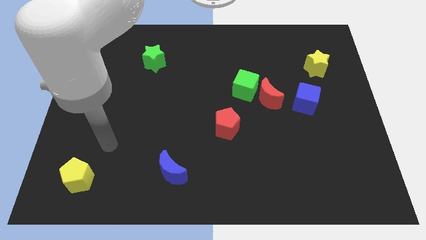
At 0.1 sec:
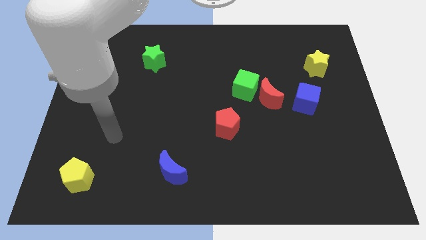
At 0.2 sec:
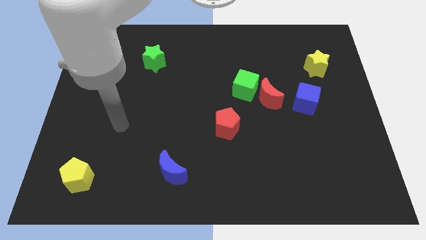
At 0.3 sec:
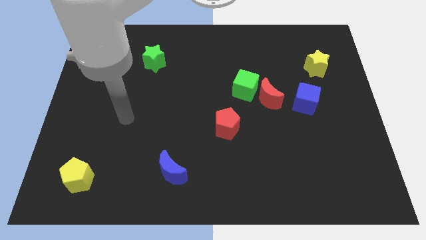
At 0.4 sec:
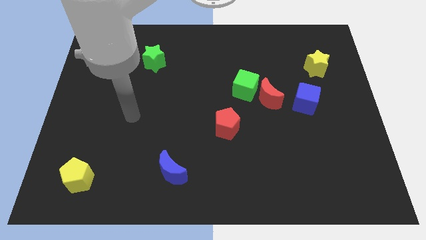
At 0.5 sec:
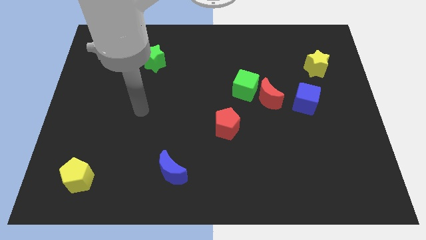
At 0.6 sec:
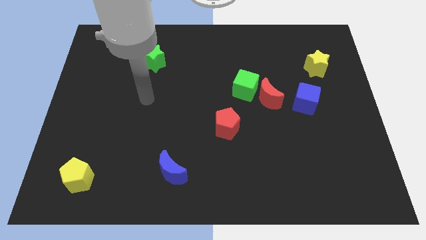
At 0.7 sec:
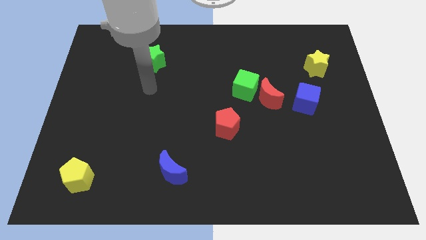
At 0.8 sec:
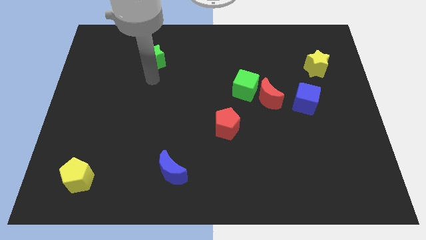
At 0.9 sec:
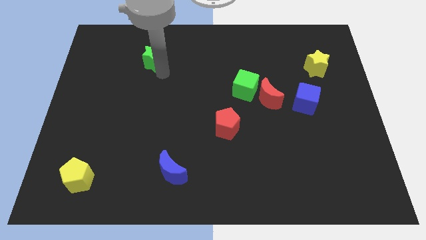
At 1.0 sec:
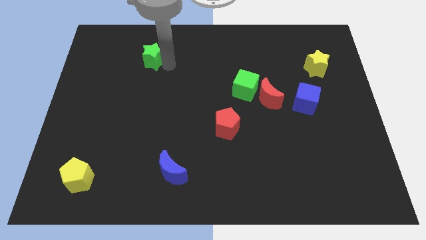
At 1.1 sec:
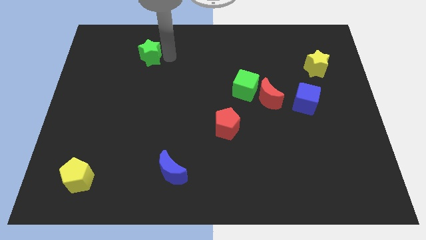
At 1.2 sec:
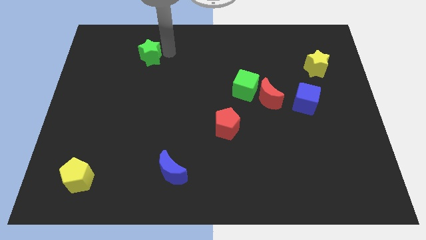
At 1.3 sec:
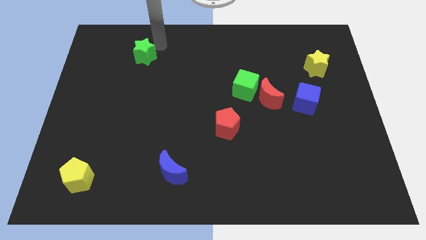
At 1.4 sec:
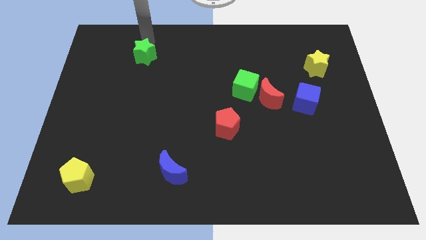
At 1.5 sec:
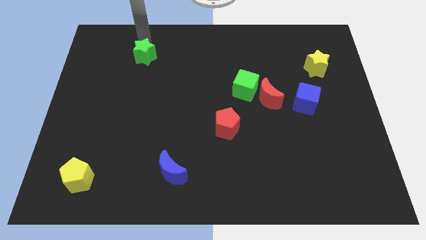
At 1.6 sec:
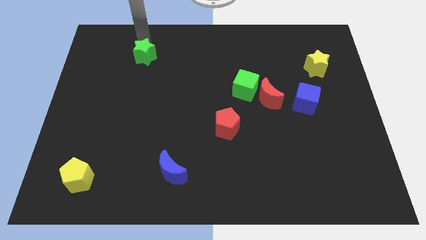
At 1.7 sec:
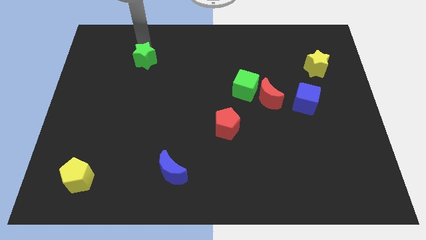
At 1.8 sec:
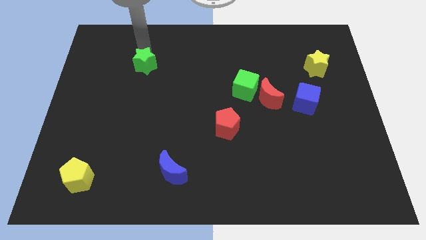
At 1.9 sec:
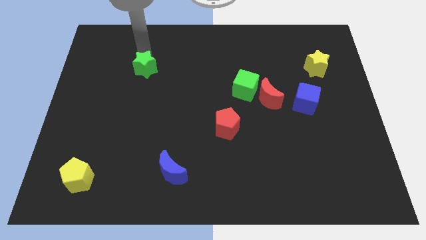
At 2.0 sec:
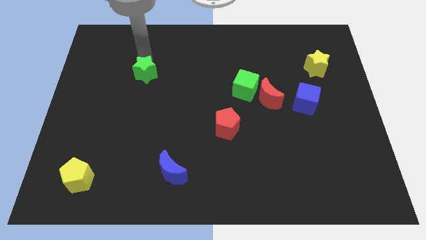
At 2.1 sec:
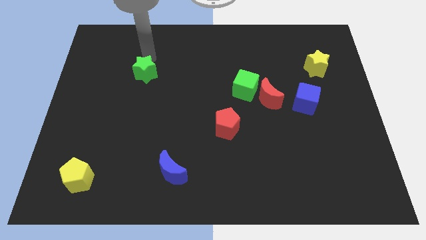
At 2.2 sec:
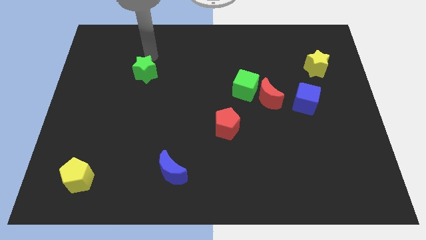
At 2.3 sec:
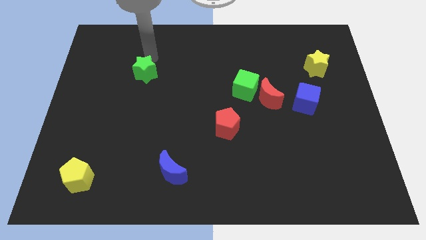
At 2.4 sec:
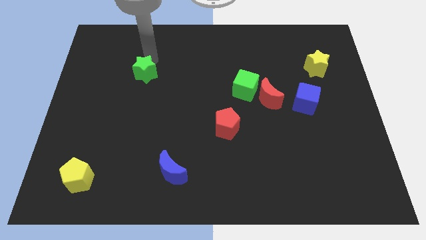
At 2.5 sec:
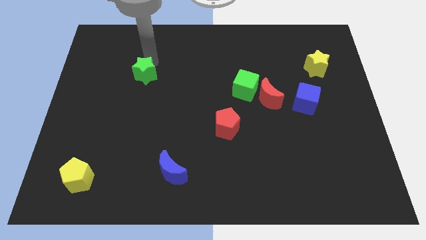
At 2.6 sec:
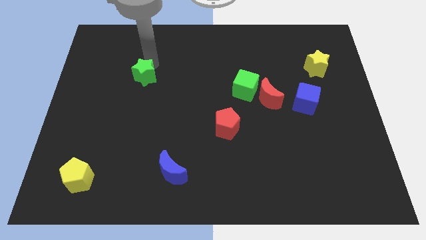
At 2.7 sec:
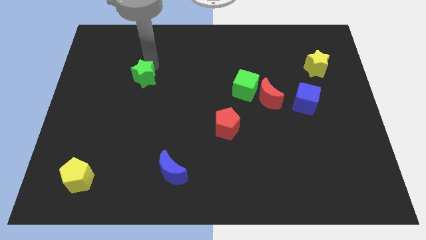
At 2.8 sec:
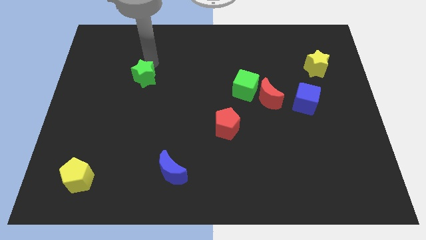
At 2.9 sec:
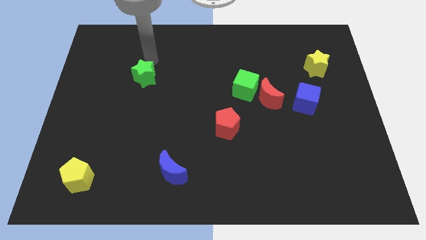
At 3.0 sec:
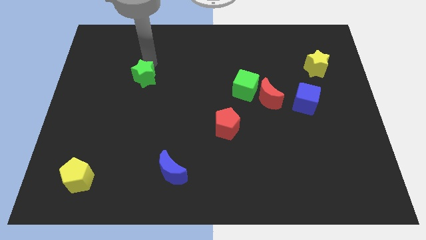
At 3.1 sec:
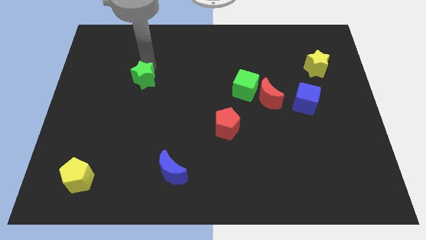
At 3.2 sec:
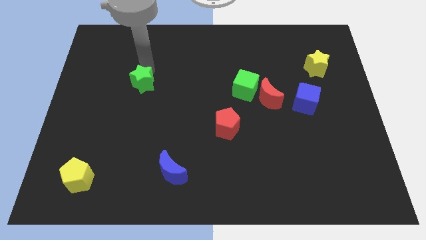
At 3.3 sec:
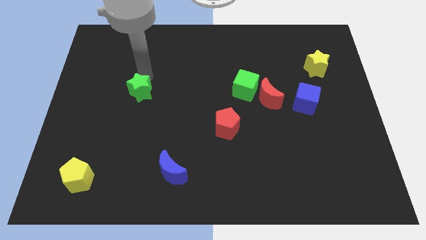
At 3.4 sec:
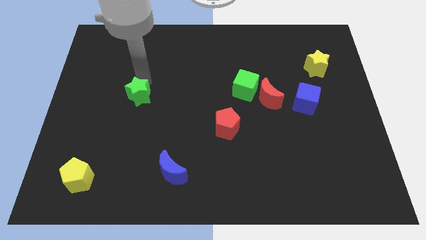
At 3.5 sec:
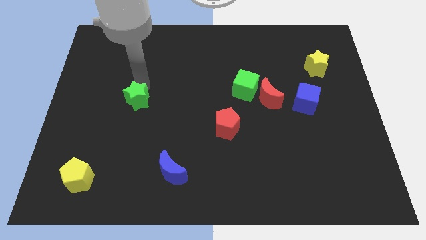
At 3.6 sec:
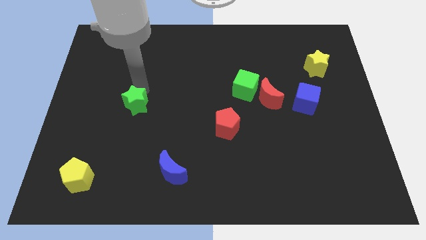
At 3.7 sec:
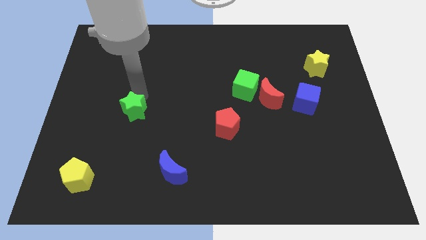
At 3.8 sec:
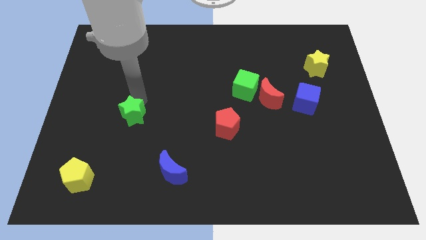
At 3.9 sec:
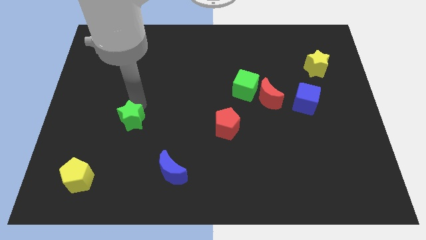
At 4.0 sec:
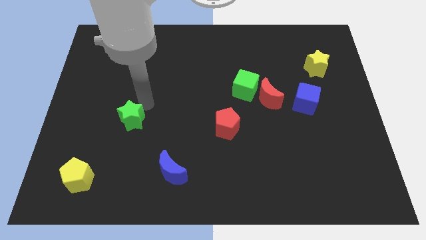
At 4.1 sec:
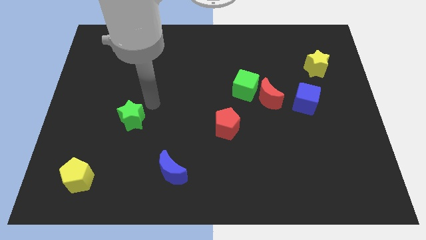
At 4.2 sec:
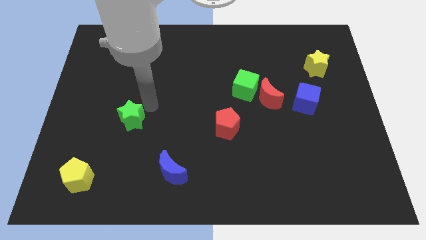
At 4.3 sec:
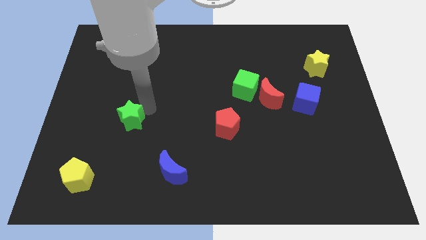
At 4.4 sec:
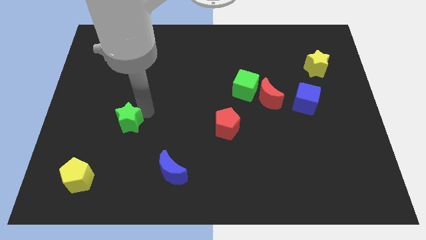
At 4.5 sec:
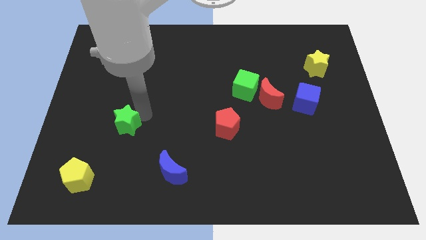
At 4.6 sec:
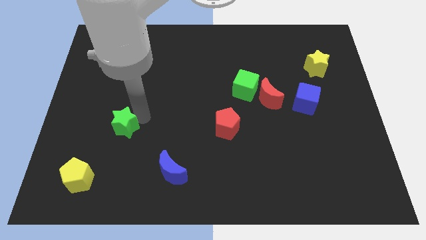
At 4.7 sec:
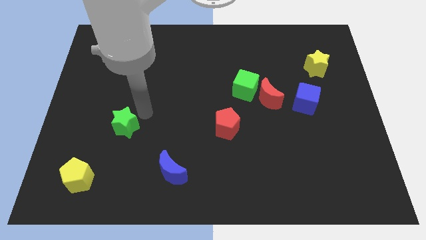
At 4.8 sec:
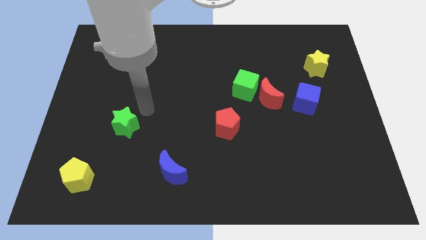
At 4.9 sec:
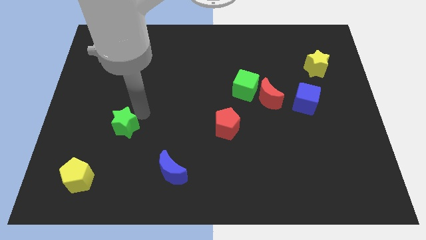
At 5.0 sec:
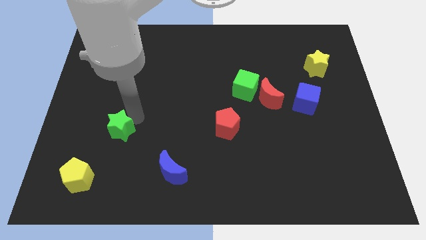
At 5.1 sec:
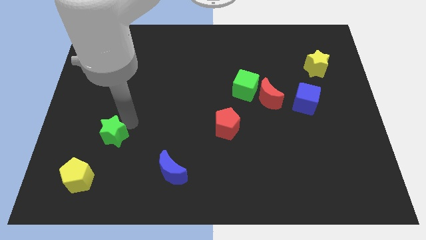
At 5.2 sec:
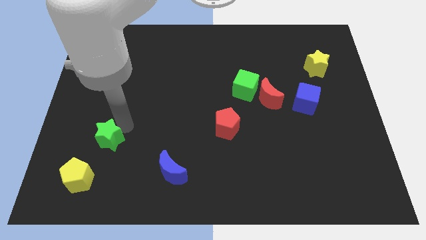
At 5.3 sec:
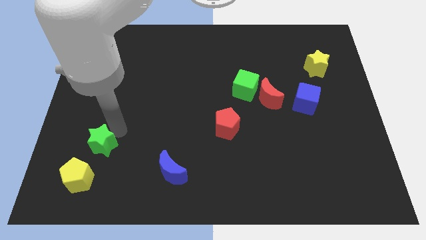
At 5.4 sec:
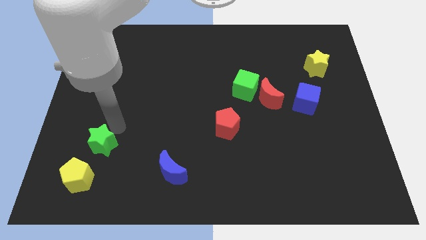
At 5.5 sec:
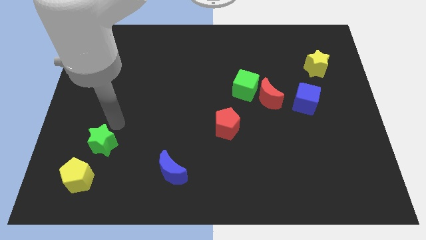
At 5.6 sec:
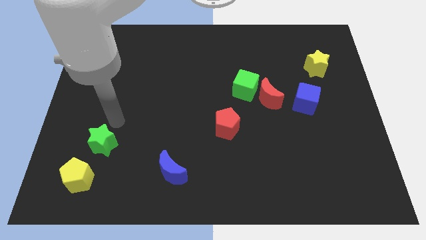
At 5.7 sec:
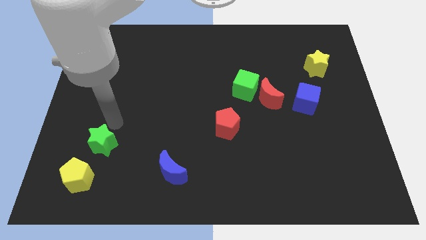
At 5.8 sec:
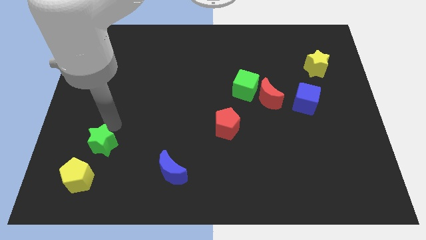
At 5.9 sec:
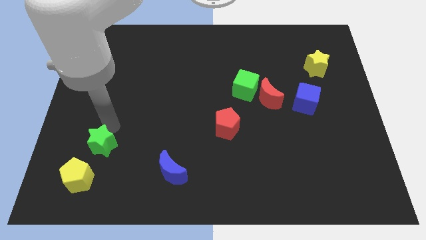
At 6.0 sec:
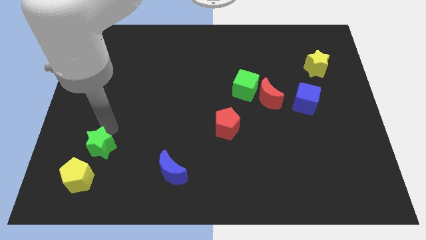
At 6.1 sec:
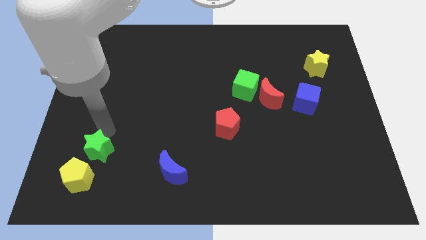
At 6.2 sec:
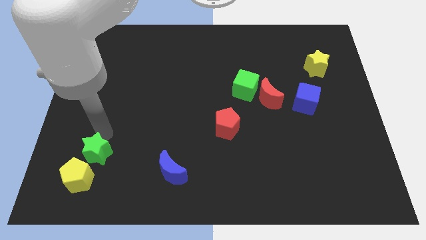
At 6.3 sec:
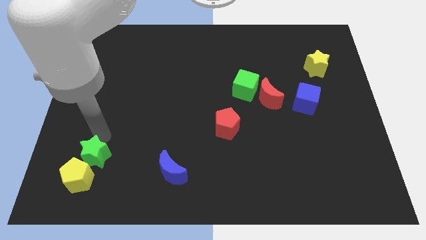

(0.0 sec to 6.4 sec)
put the green star to the yellow pentagon

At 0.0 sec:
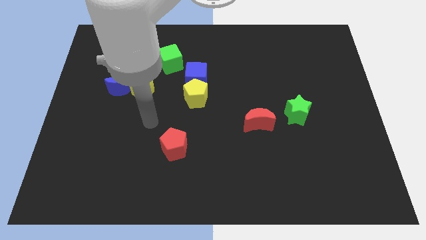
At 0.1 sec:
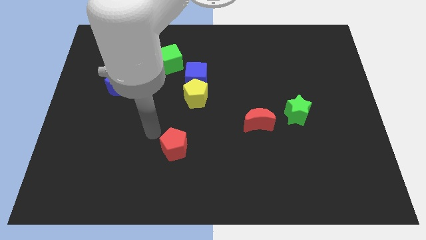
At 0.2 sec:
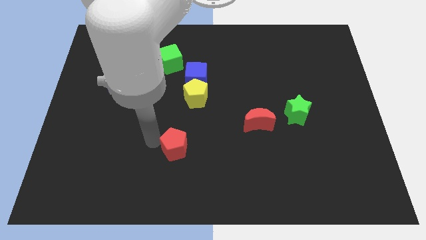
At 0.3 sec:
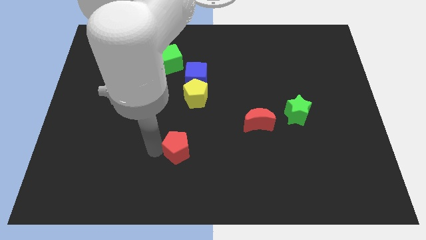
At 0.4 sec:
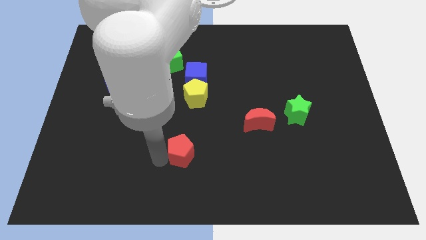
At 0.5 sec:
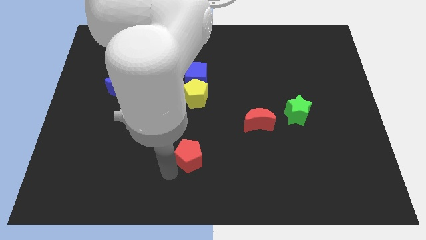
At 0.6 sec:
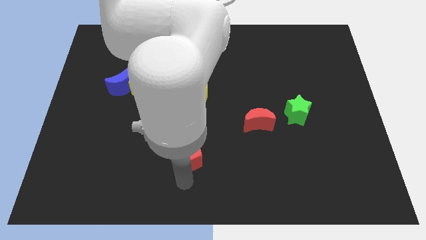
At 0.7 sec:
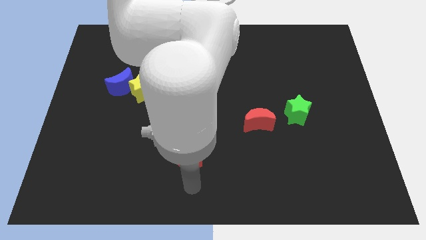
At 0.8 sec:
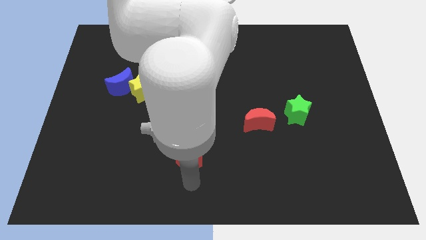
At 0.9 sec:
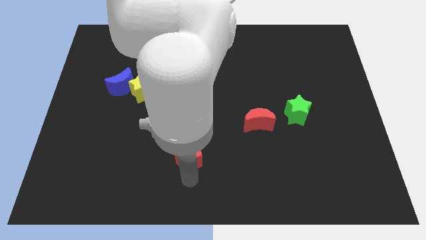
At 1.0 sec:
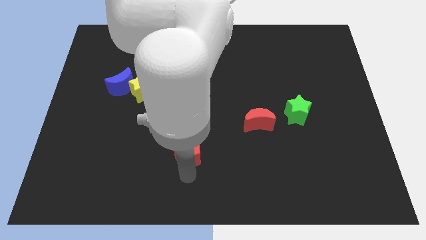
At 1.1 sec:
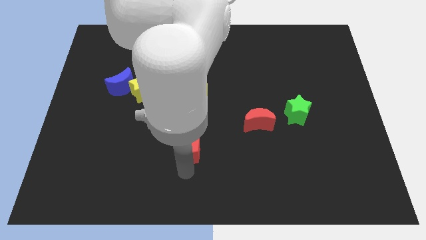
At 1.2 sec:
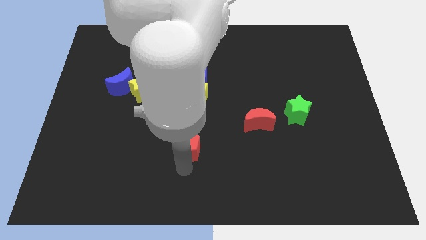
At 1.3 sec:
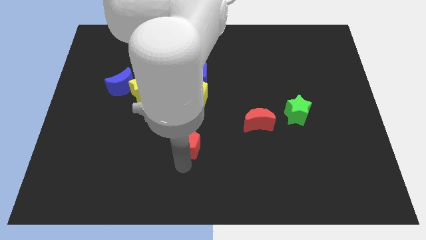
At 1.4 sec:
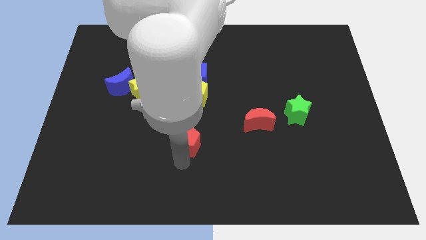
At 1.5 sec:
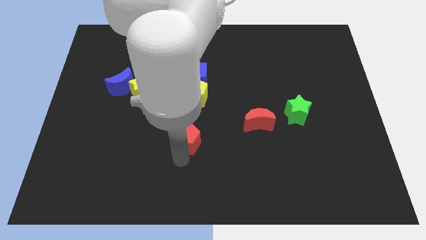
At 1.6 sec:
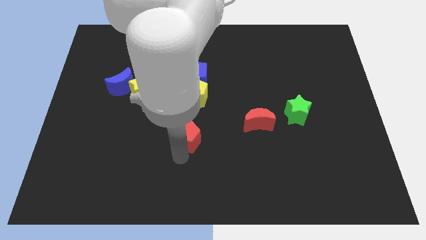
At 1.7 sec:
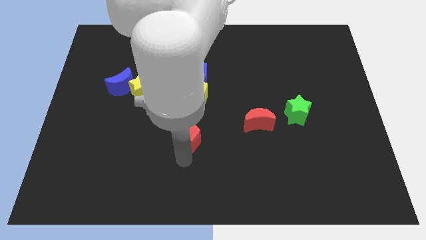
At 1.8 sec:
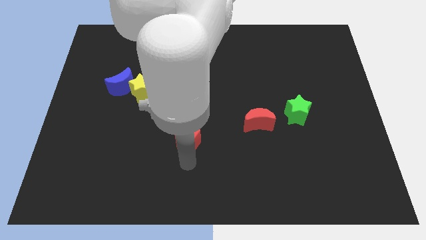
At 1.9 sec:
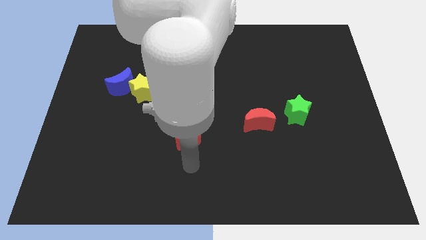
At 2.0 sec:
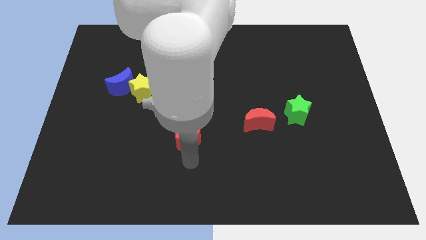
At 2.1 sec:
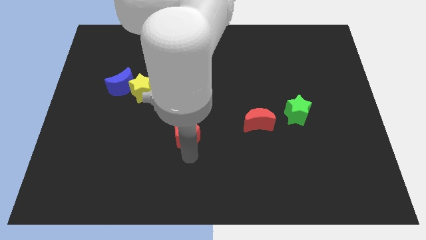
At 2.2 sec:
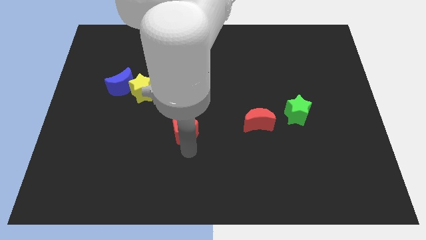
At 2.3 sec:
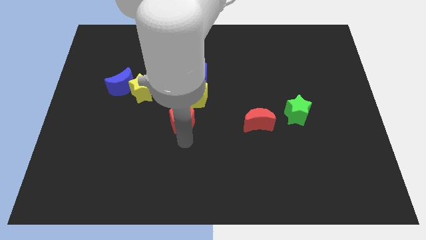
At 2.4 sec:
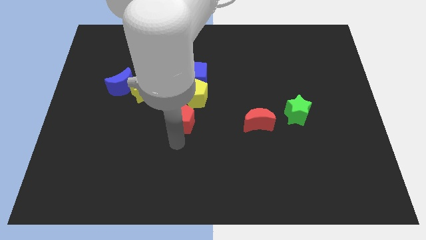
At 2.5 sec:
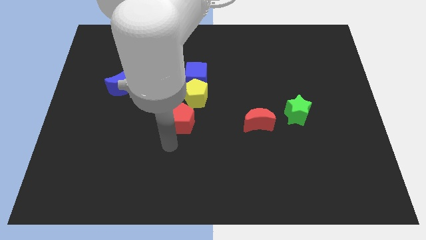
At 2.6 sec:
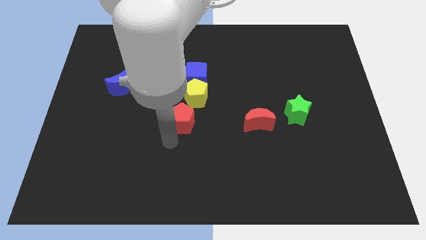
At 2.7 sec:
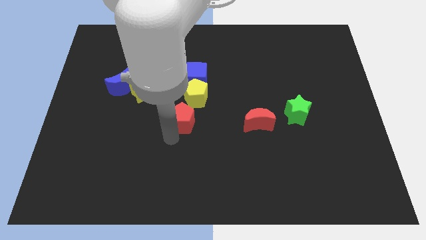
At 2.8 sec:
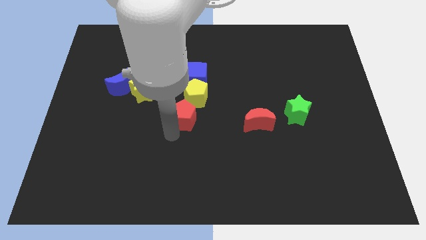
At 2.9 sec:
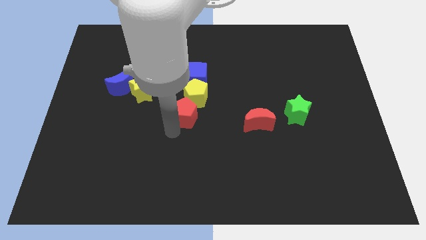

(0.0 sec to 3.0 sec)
put the red pentagon to the yellow pentagon
